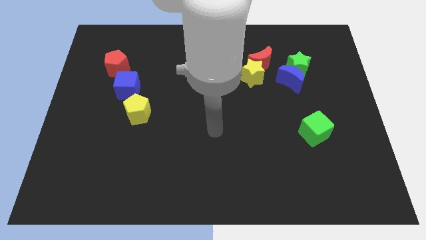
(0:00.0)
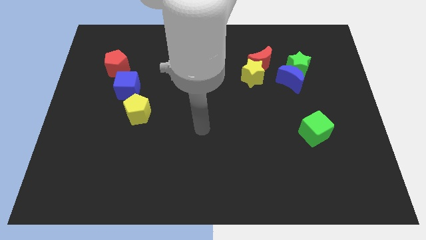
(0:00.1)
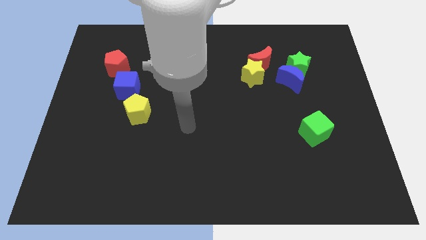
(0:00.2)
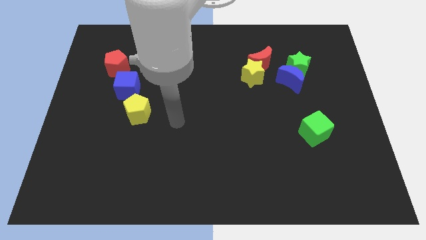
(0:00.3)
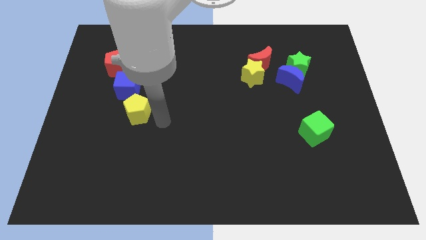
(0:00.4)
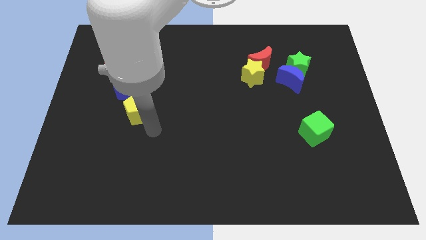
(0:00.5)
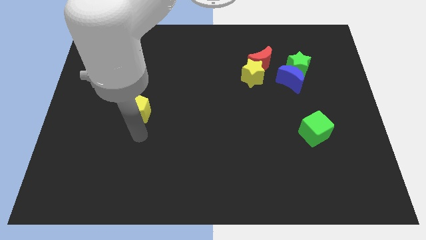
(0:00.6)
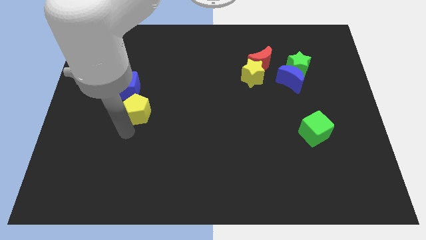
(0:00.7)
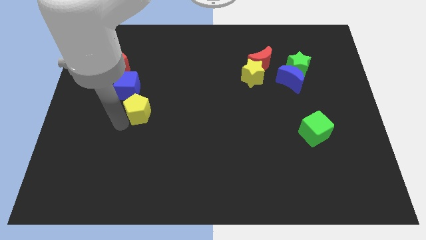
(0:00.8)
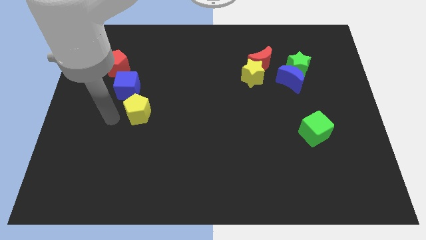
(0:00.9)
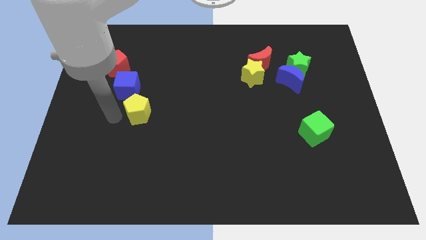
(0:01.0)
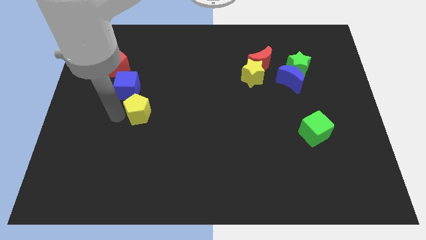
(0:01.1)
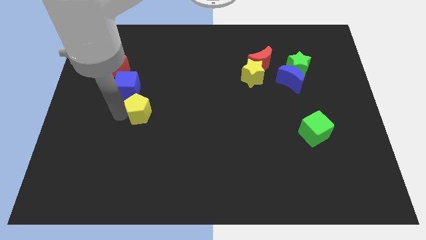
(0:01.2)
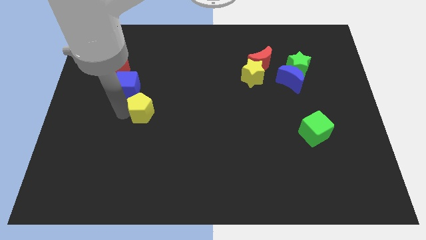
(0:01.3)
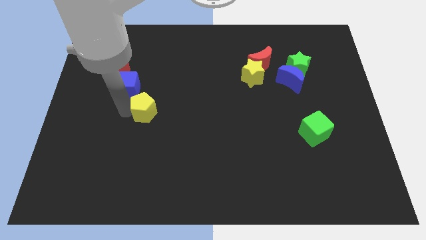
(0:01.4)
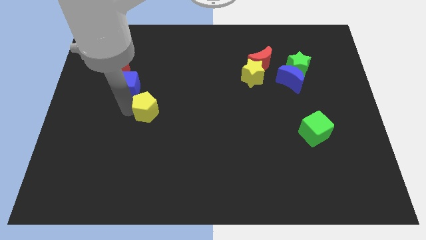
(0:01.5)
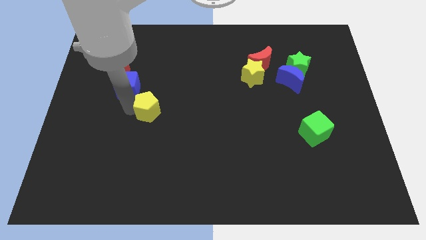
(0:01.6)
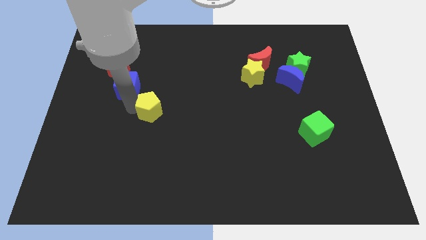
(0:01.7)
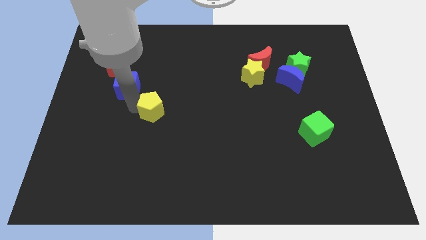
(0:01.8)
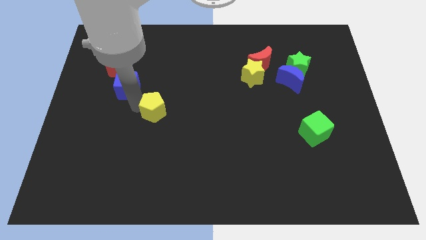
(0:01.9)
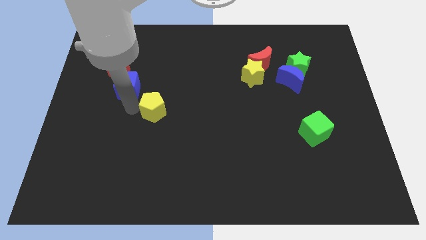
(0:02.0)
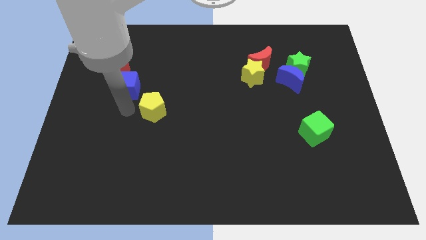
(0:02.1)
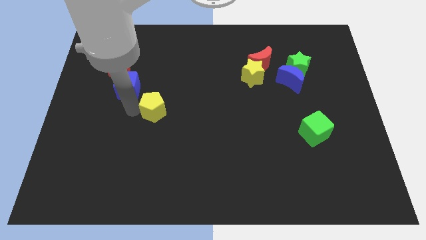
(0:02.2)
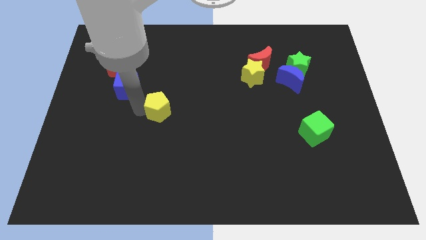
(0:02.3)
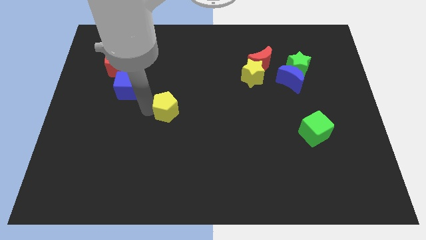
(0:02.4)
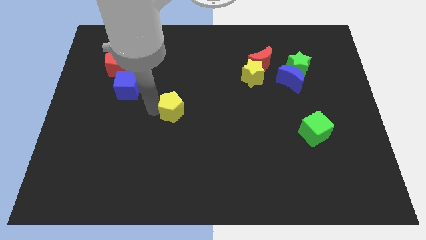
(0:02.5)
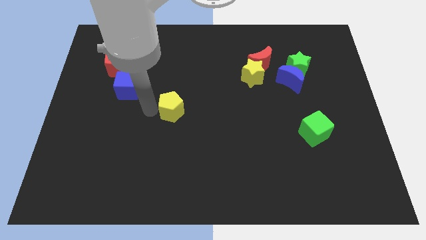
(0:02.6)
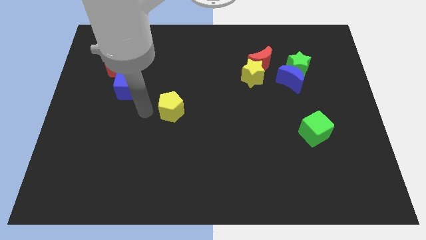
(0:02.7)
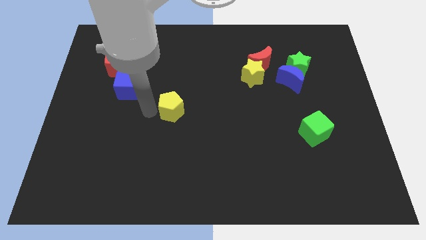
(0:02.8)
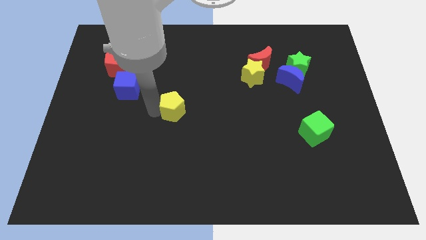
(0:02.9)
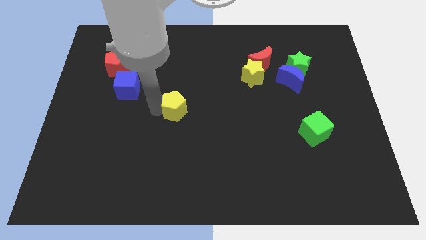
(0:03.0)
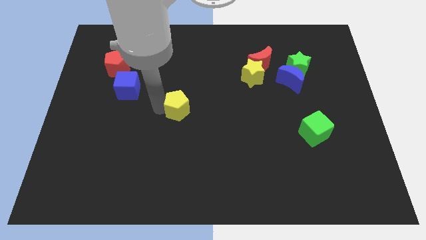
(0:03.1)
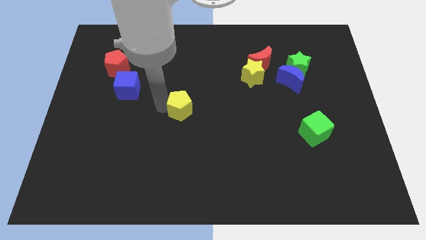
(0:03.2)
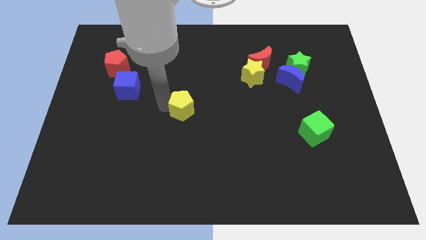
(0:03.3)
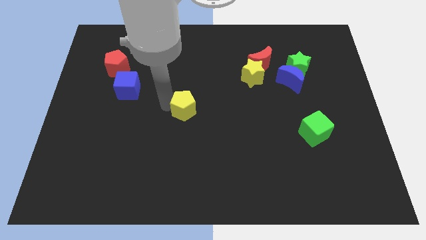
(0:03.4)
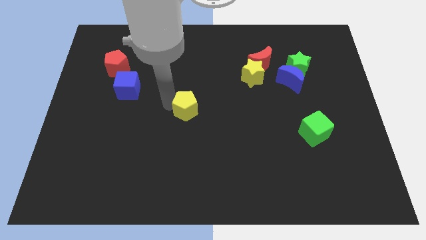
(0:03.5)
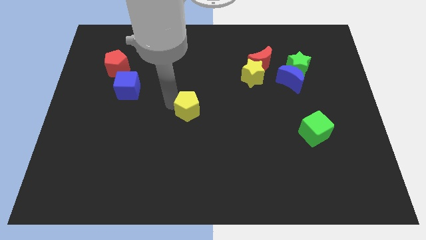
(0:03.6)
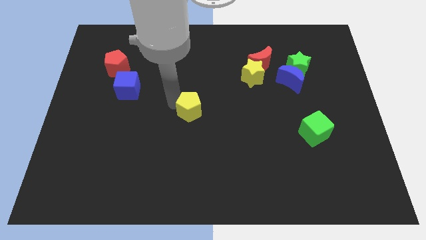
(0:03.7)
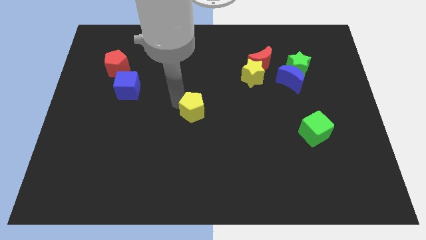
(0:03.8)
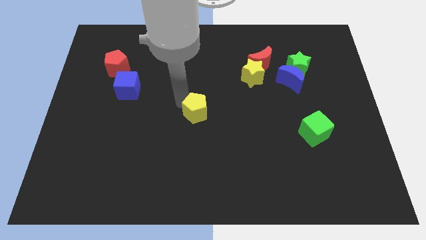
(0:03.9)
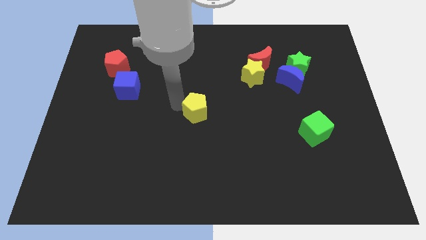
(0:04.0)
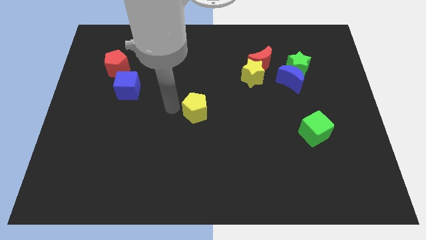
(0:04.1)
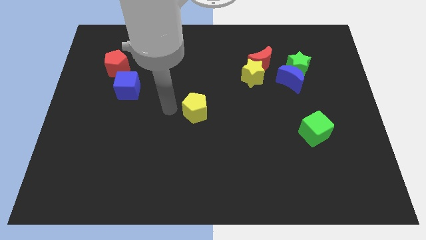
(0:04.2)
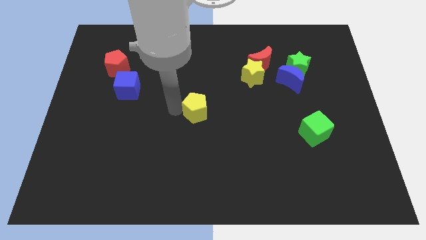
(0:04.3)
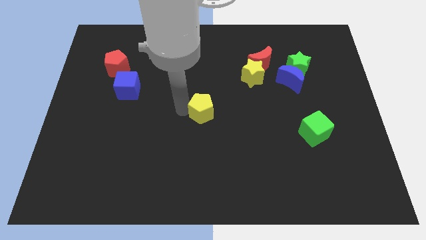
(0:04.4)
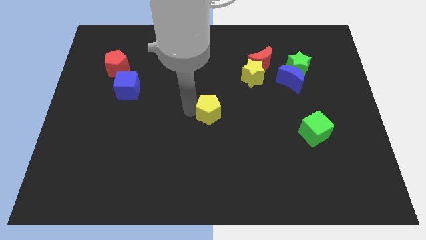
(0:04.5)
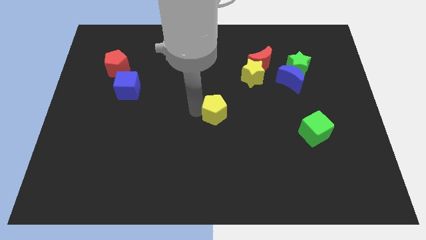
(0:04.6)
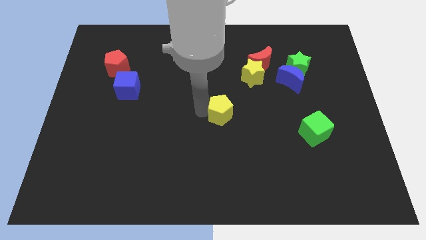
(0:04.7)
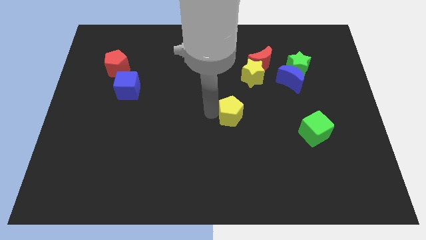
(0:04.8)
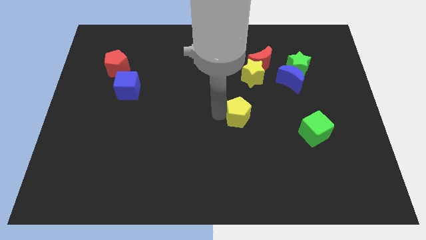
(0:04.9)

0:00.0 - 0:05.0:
move the yellow pentagon to the bottom side of the yellow star

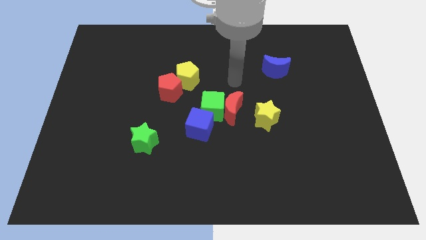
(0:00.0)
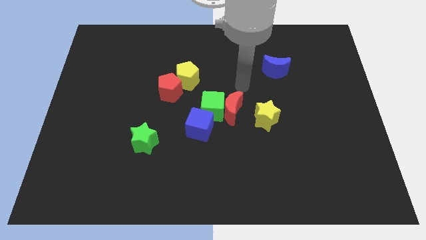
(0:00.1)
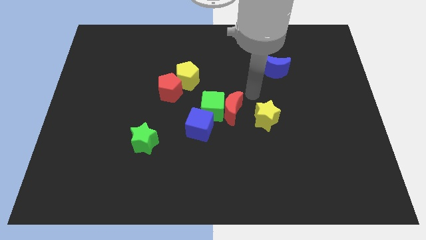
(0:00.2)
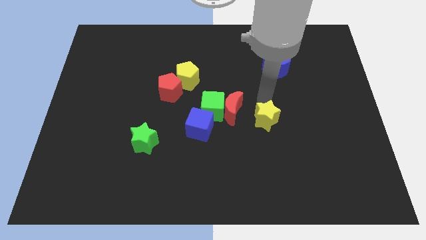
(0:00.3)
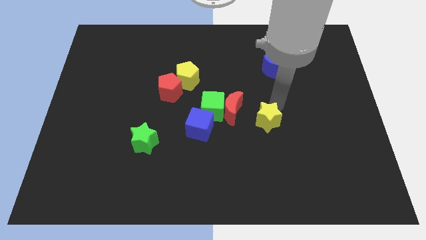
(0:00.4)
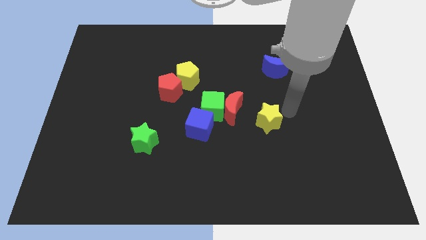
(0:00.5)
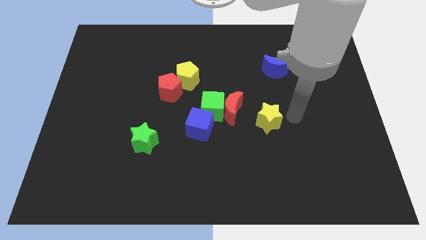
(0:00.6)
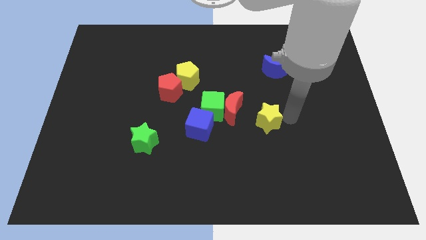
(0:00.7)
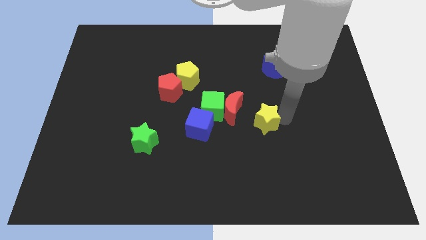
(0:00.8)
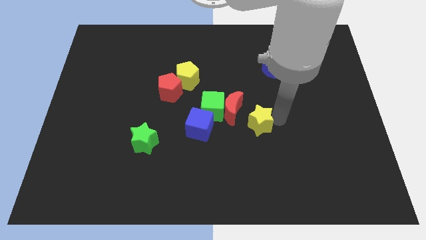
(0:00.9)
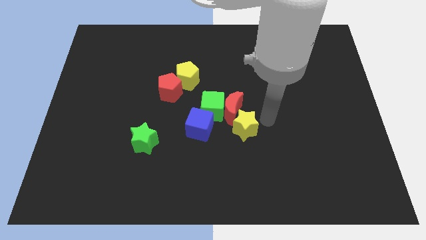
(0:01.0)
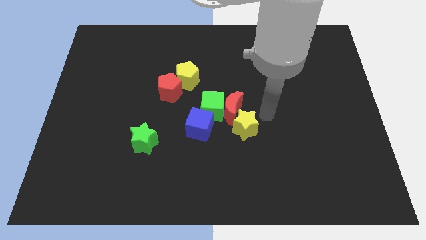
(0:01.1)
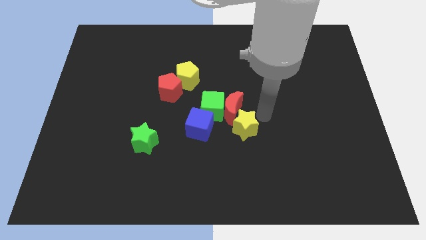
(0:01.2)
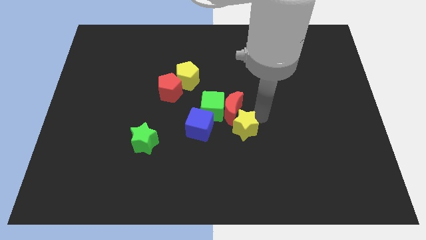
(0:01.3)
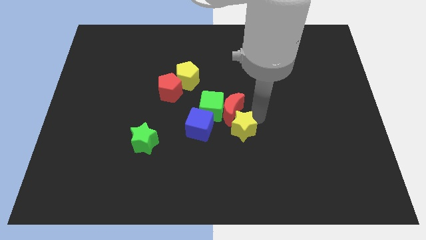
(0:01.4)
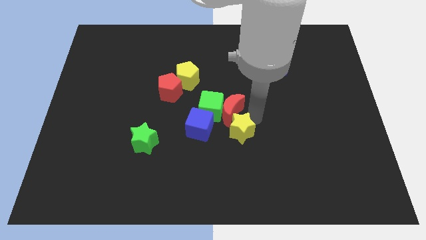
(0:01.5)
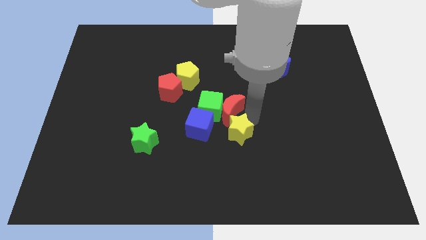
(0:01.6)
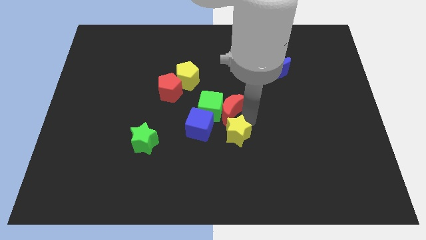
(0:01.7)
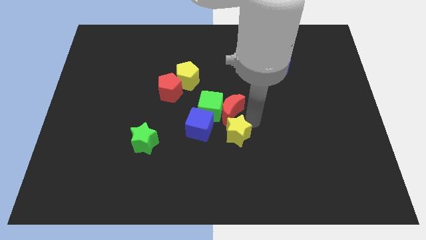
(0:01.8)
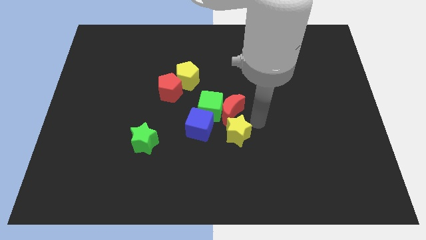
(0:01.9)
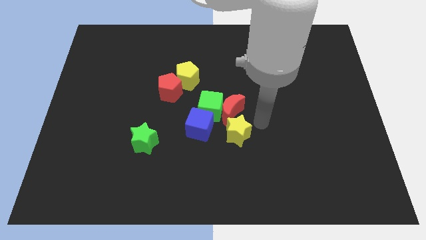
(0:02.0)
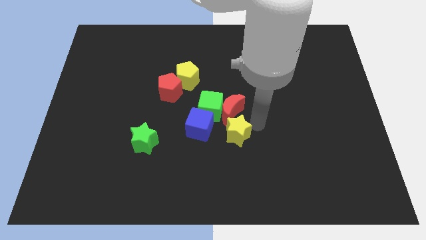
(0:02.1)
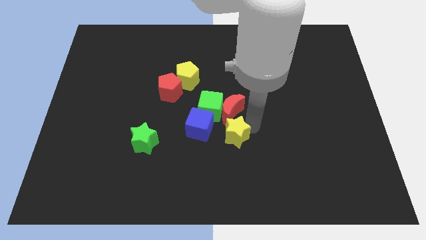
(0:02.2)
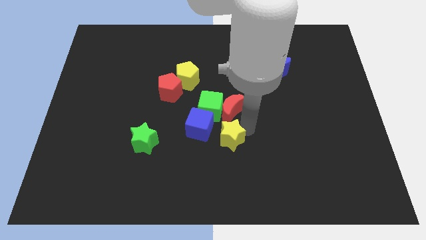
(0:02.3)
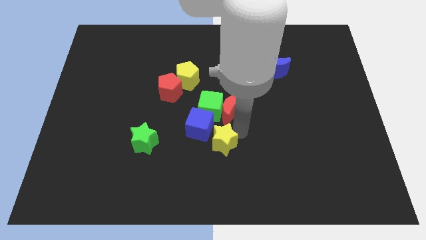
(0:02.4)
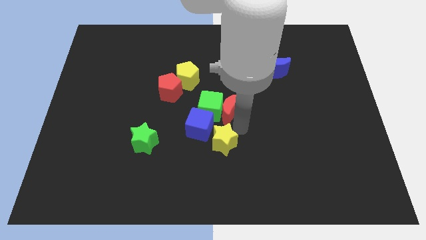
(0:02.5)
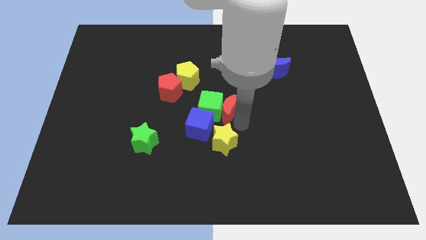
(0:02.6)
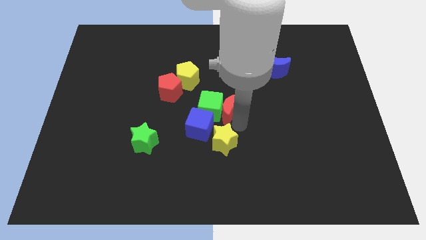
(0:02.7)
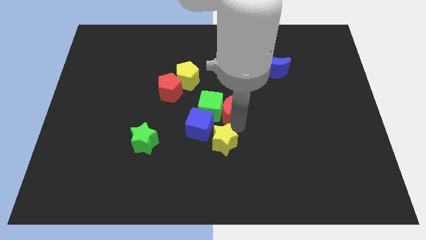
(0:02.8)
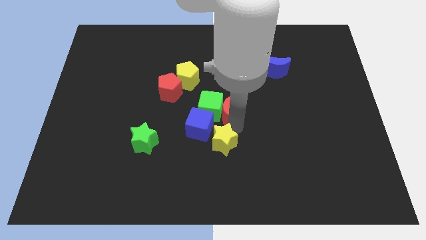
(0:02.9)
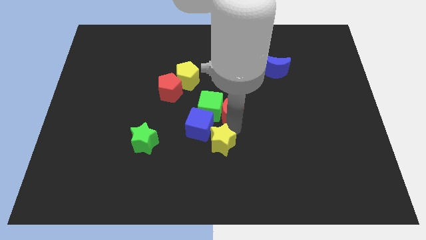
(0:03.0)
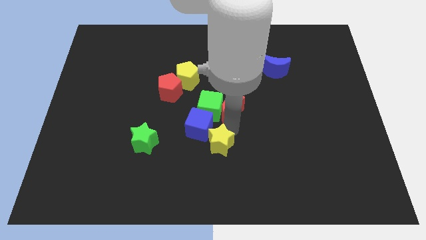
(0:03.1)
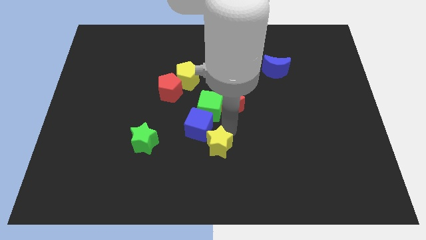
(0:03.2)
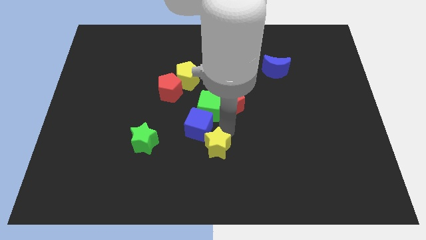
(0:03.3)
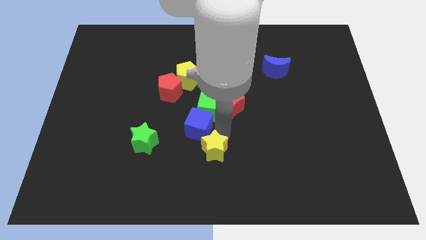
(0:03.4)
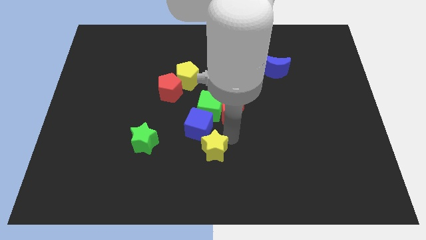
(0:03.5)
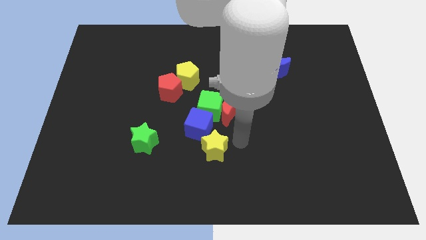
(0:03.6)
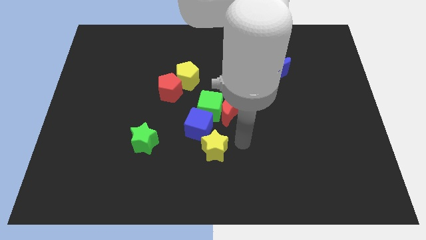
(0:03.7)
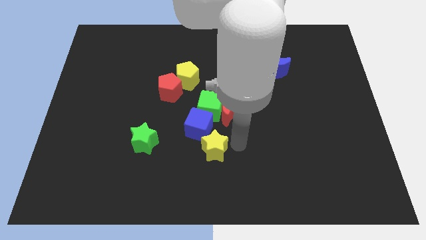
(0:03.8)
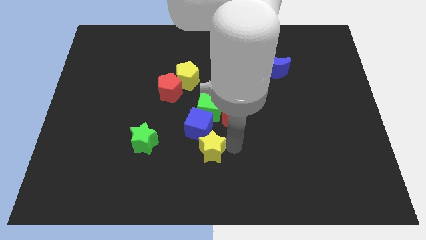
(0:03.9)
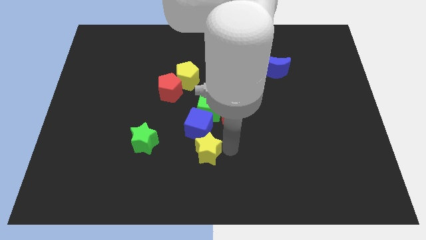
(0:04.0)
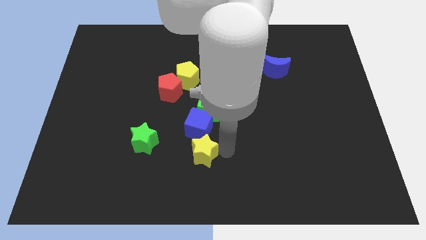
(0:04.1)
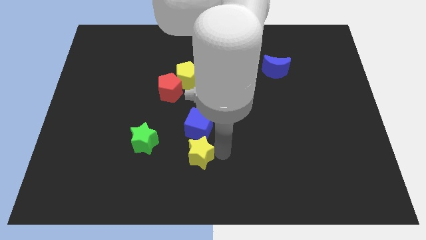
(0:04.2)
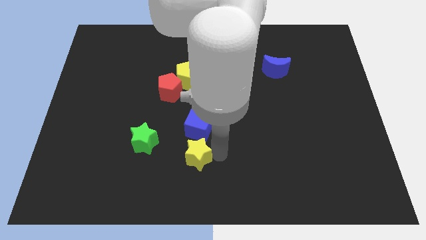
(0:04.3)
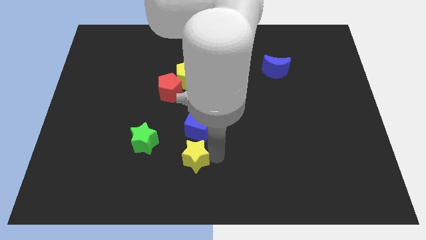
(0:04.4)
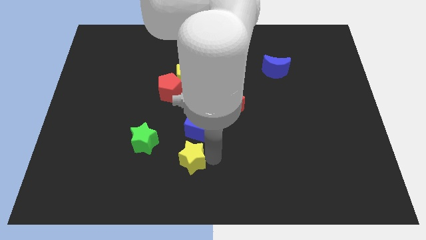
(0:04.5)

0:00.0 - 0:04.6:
move the yellow star to the bottom right side of the green star
